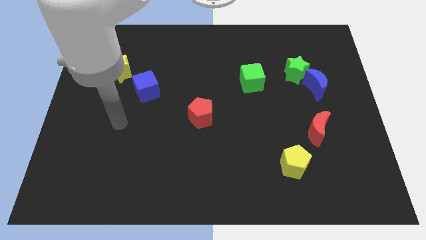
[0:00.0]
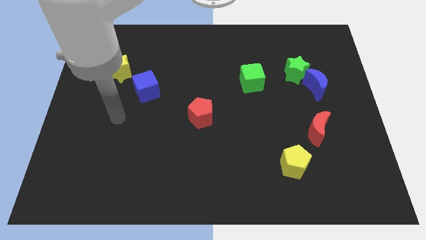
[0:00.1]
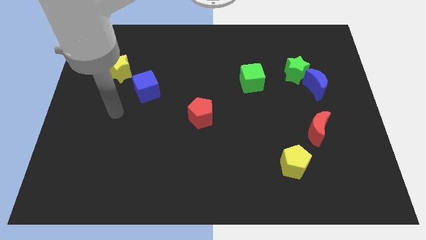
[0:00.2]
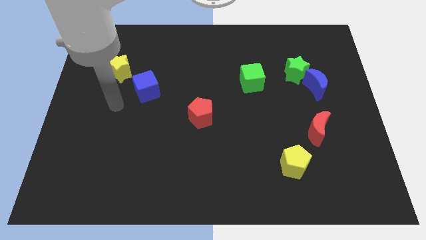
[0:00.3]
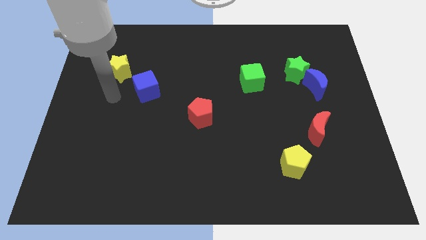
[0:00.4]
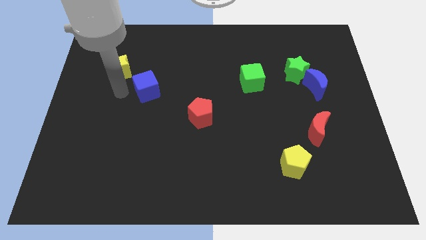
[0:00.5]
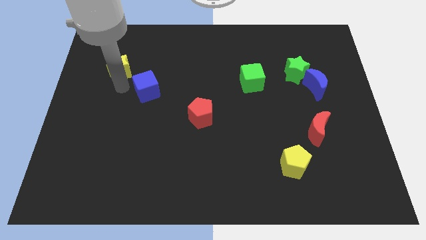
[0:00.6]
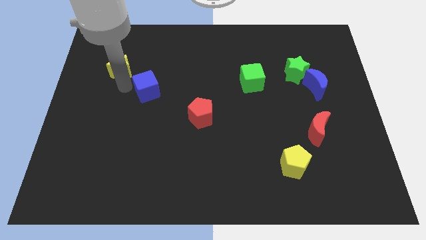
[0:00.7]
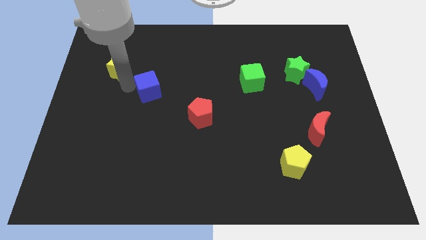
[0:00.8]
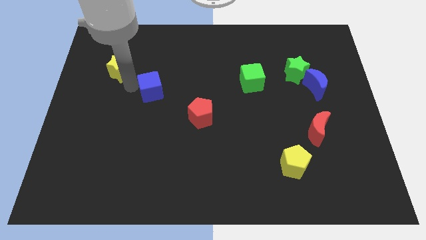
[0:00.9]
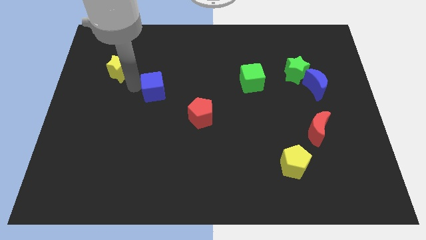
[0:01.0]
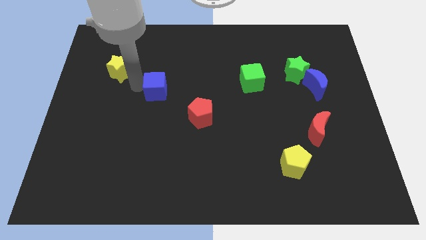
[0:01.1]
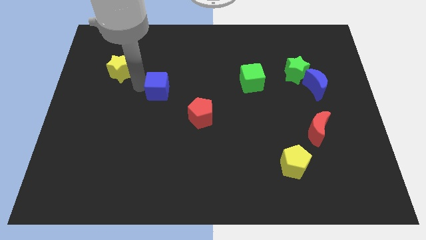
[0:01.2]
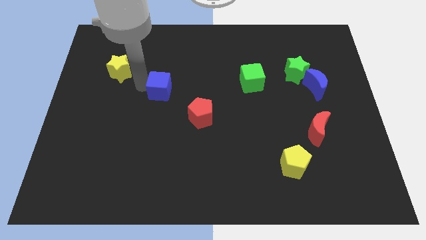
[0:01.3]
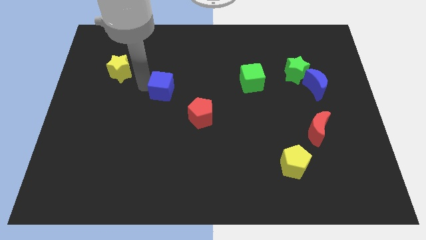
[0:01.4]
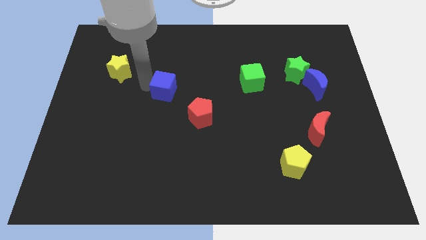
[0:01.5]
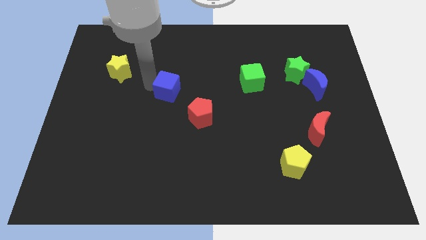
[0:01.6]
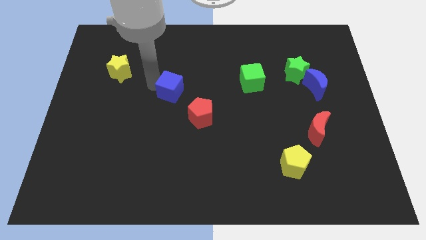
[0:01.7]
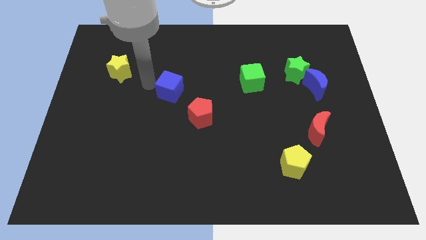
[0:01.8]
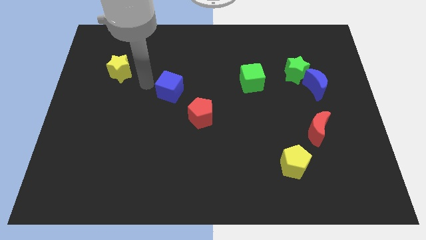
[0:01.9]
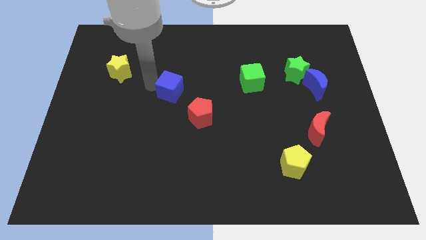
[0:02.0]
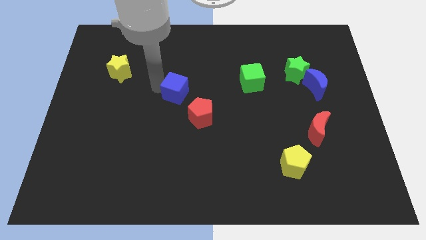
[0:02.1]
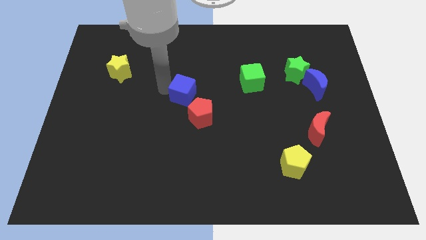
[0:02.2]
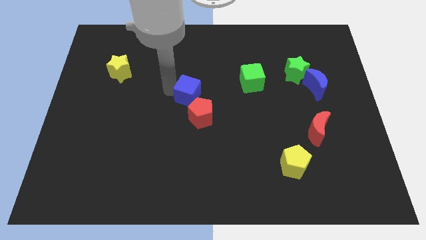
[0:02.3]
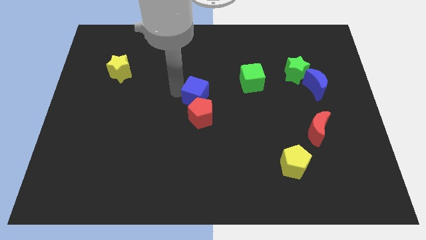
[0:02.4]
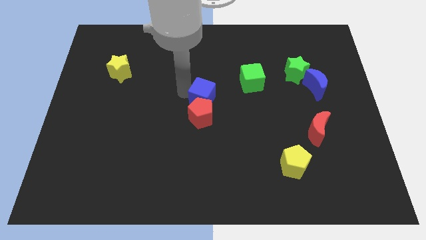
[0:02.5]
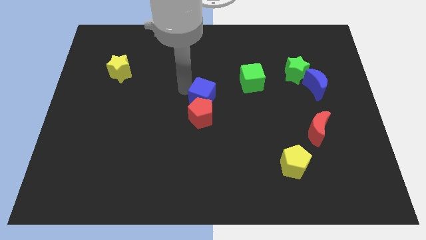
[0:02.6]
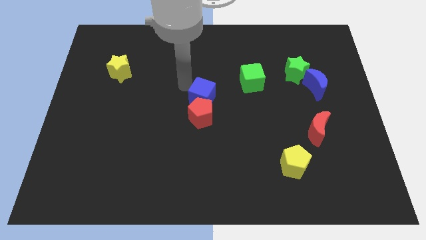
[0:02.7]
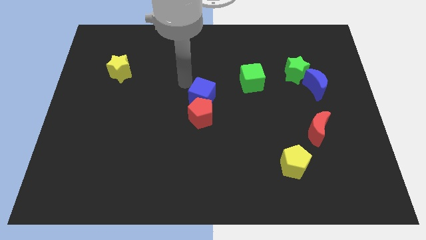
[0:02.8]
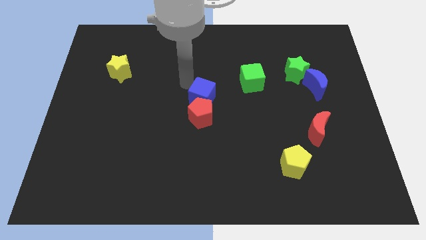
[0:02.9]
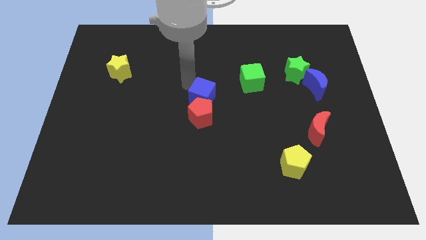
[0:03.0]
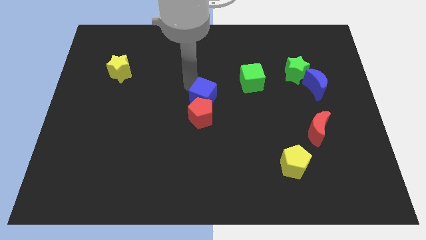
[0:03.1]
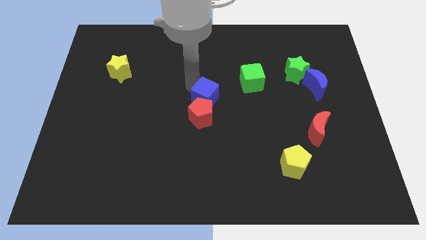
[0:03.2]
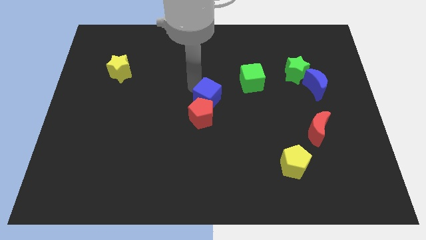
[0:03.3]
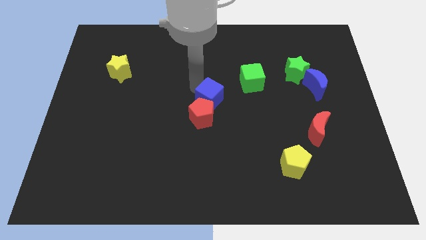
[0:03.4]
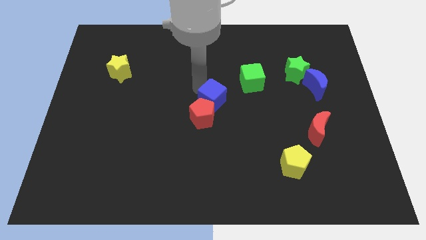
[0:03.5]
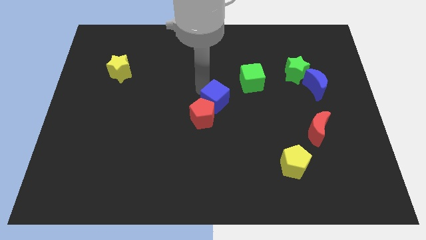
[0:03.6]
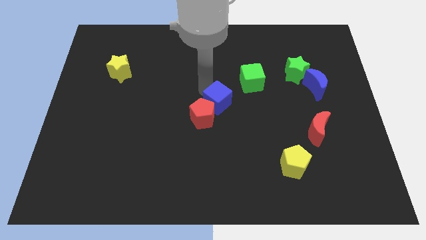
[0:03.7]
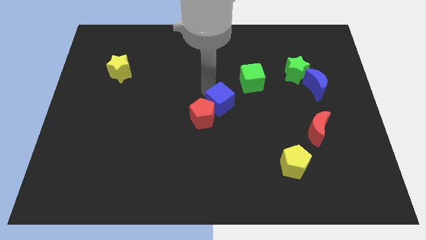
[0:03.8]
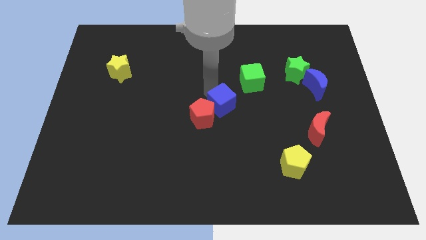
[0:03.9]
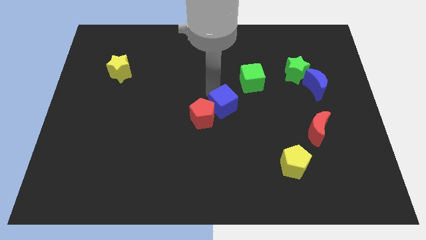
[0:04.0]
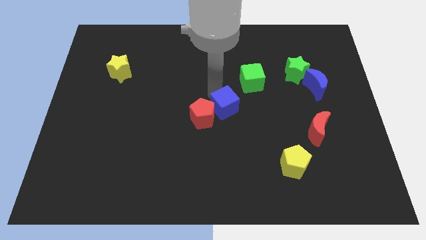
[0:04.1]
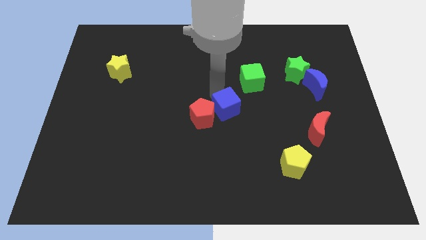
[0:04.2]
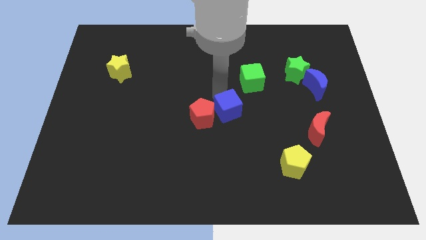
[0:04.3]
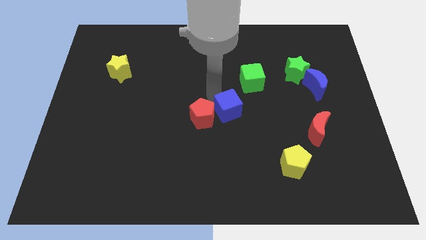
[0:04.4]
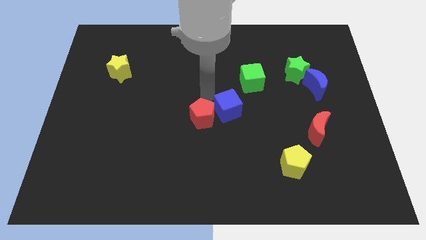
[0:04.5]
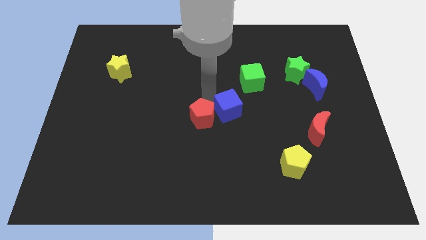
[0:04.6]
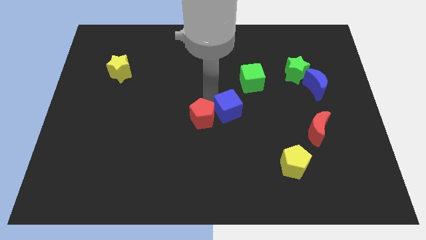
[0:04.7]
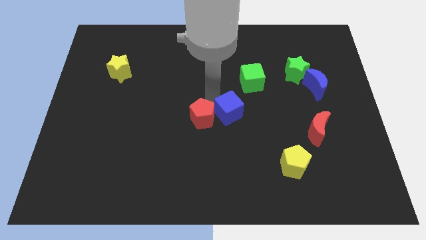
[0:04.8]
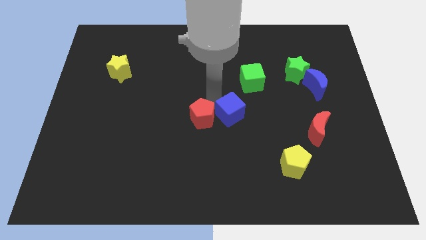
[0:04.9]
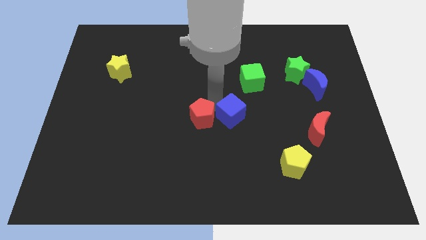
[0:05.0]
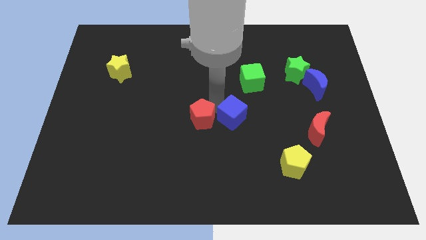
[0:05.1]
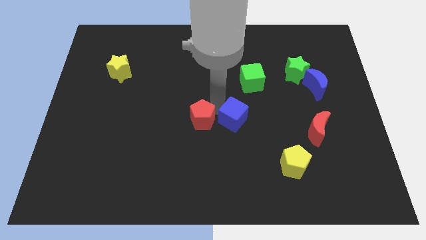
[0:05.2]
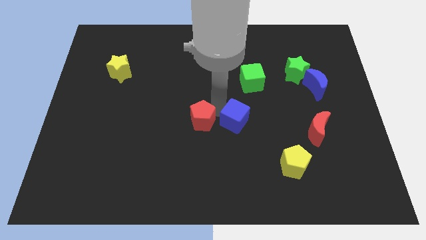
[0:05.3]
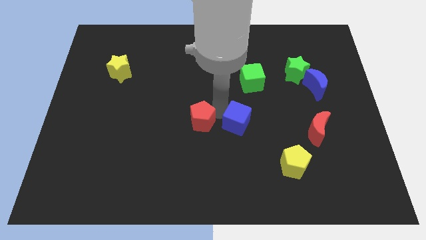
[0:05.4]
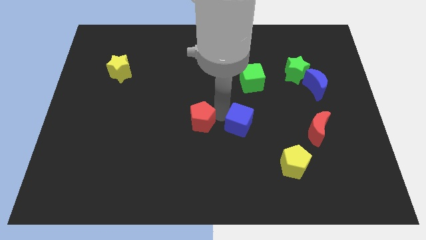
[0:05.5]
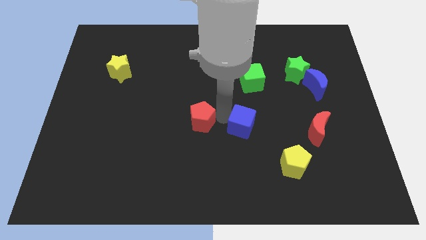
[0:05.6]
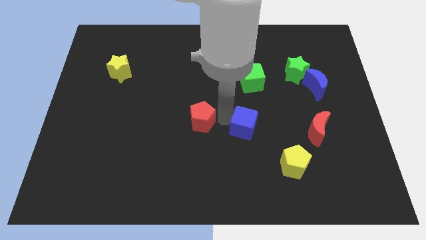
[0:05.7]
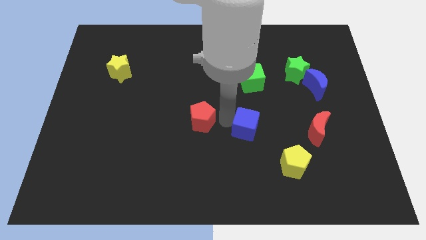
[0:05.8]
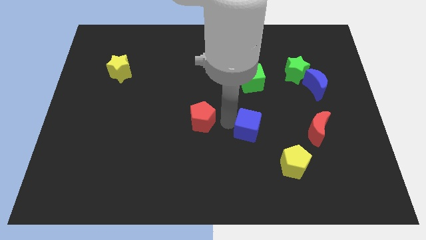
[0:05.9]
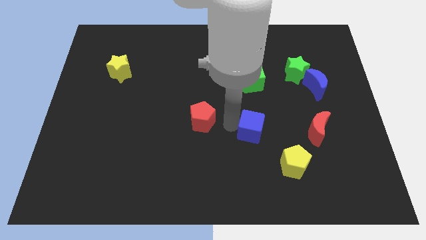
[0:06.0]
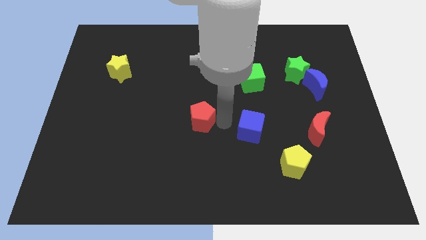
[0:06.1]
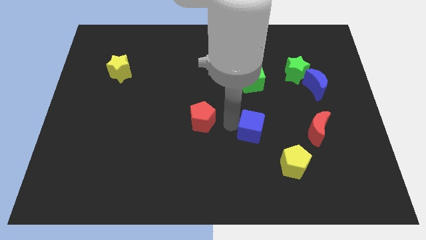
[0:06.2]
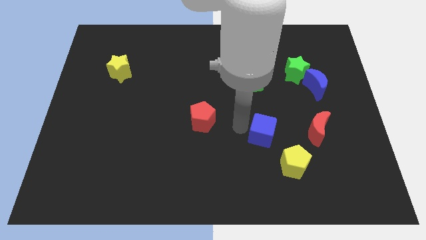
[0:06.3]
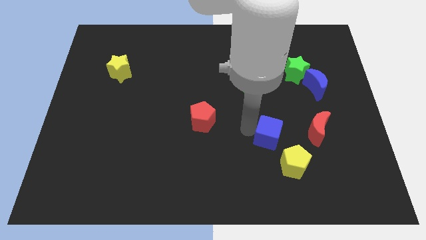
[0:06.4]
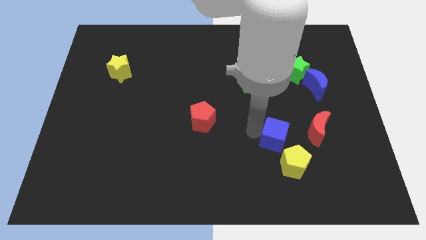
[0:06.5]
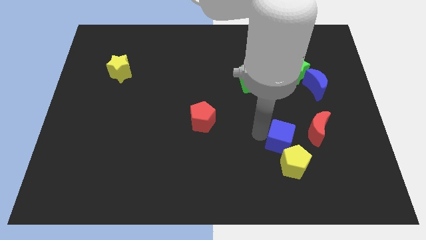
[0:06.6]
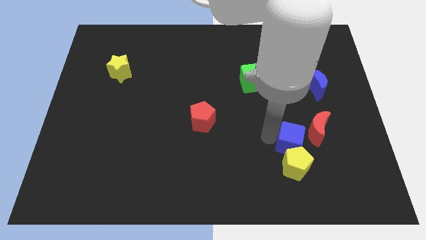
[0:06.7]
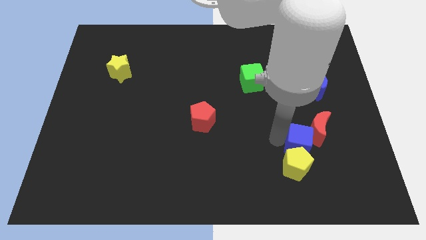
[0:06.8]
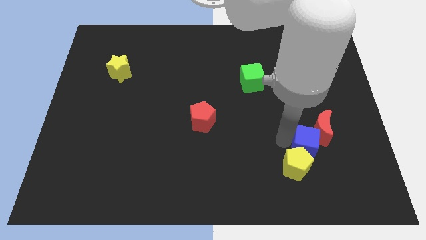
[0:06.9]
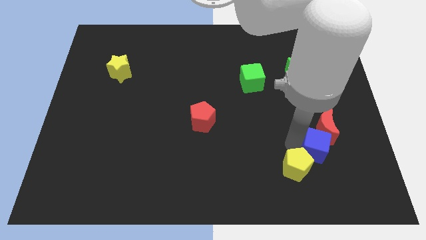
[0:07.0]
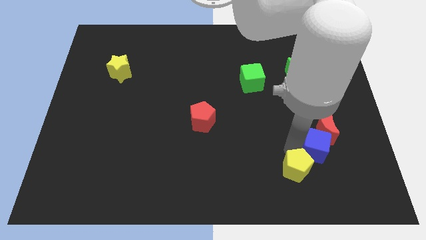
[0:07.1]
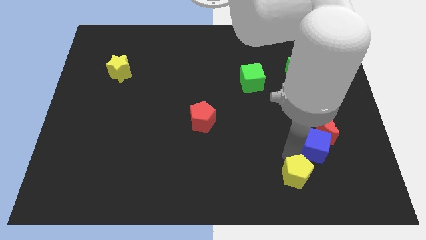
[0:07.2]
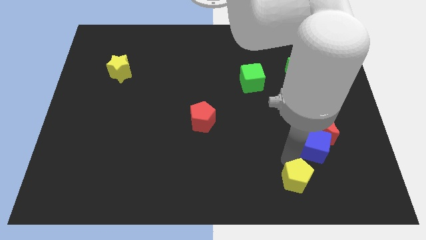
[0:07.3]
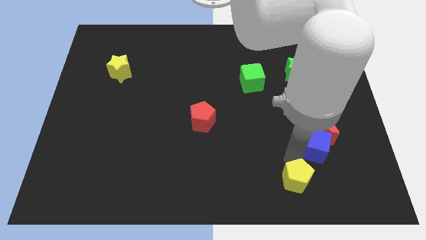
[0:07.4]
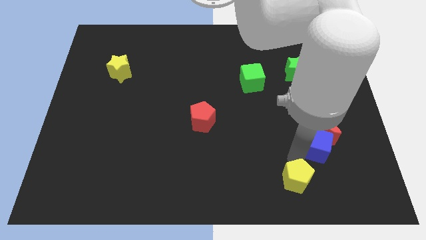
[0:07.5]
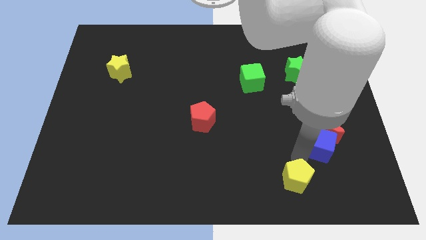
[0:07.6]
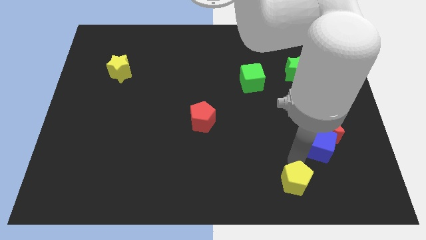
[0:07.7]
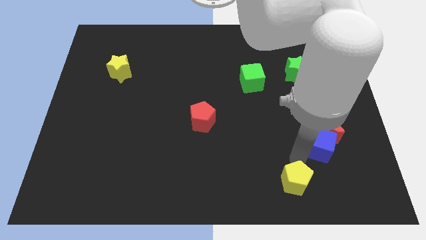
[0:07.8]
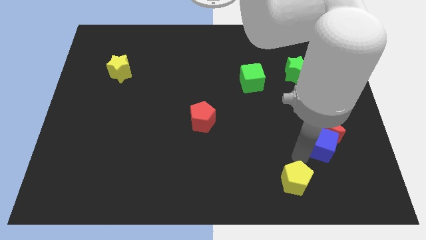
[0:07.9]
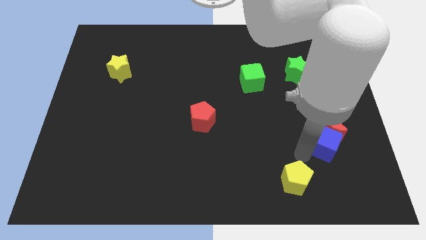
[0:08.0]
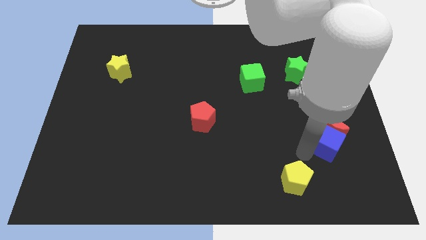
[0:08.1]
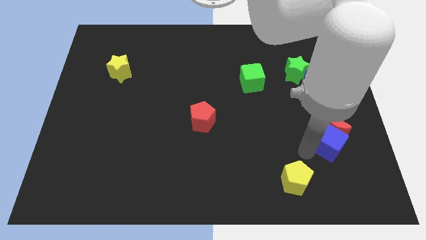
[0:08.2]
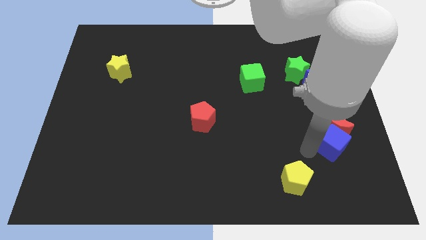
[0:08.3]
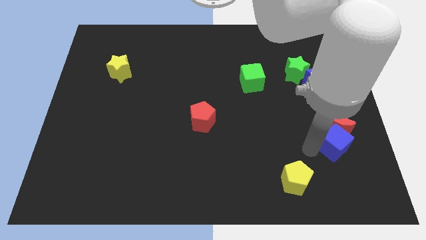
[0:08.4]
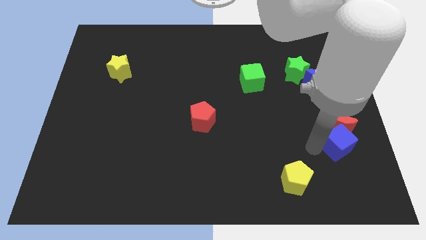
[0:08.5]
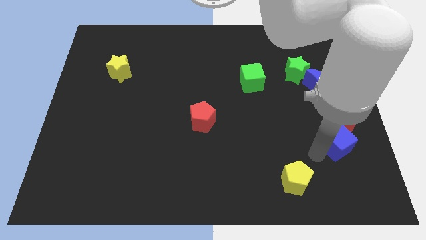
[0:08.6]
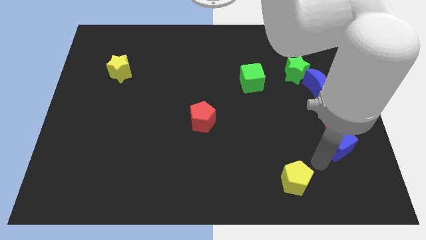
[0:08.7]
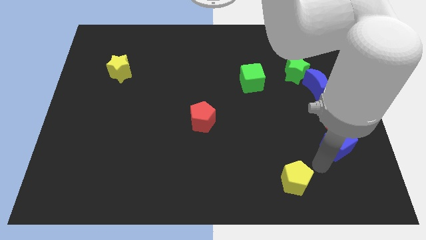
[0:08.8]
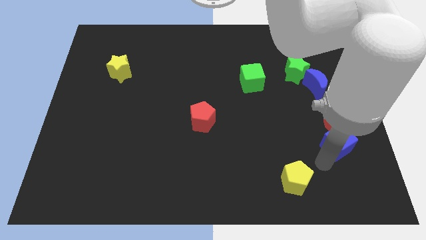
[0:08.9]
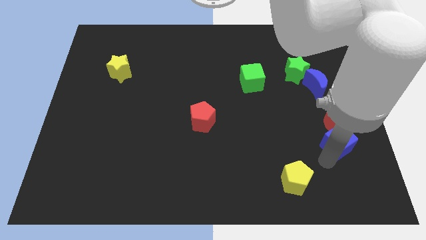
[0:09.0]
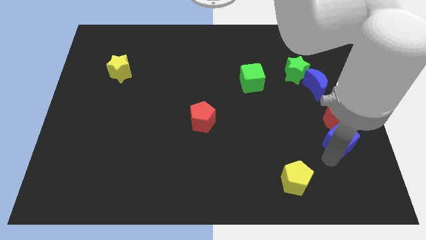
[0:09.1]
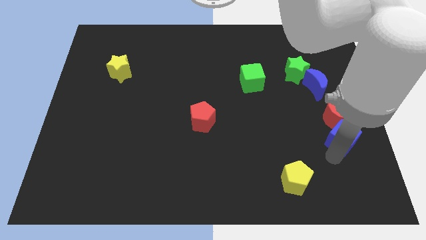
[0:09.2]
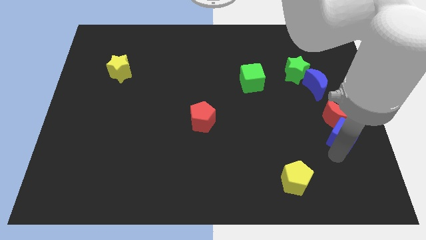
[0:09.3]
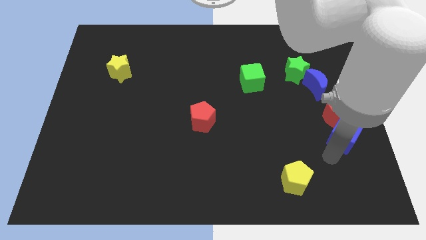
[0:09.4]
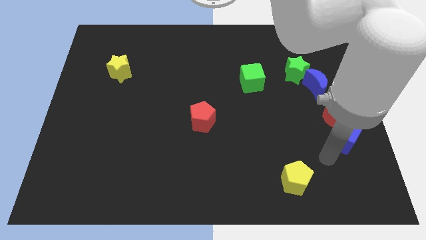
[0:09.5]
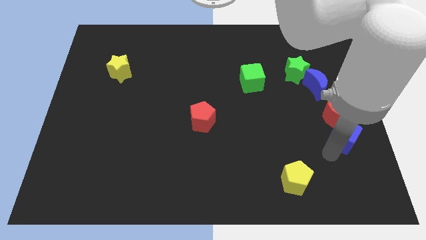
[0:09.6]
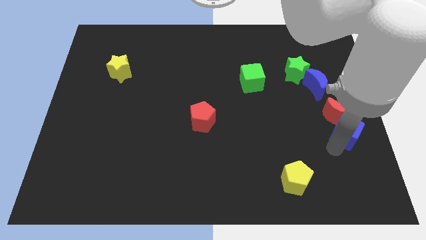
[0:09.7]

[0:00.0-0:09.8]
put the blue cube to the right side of the board
